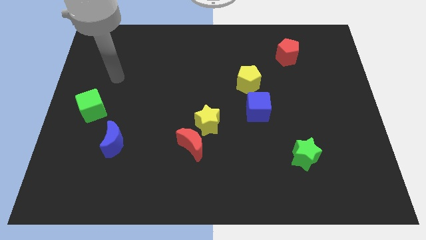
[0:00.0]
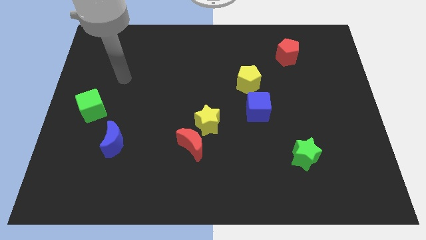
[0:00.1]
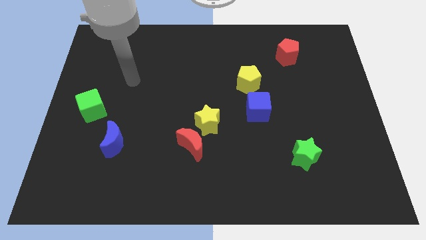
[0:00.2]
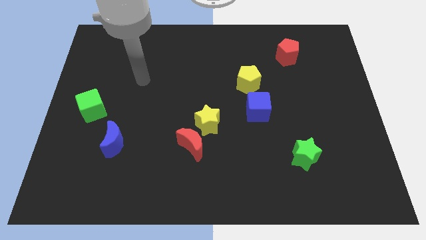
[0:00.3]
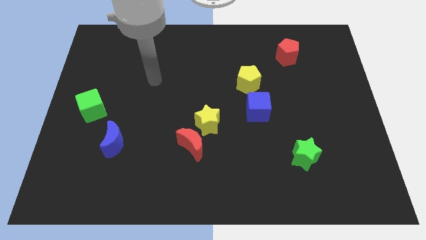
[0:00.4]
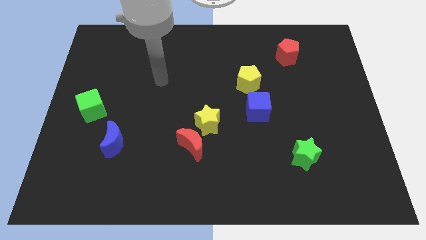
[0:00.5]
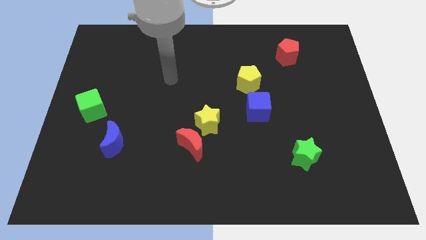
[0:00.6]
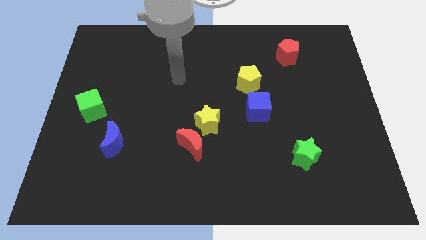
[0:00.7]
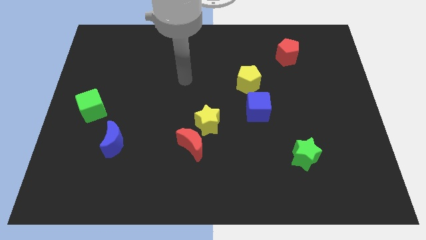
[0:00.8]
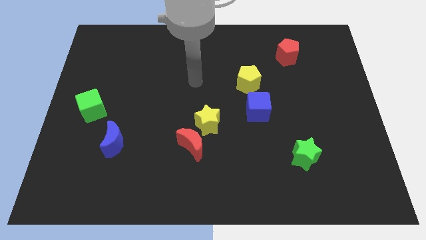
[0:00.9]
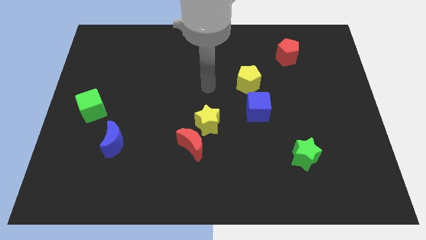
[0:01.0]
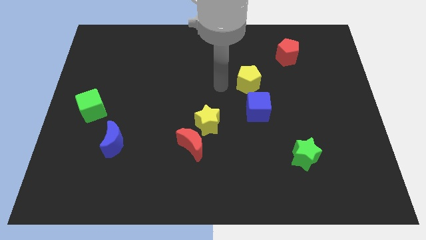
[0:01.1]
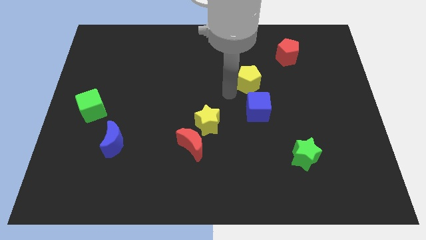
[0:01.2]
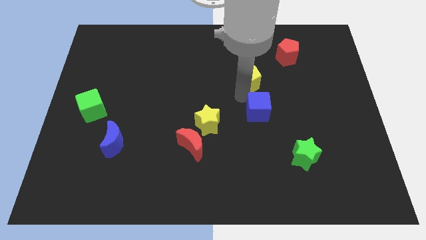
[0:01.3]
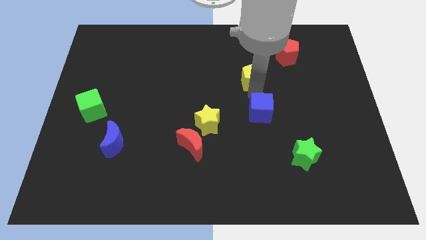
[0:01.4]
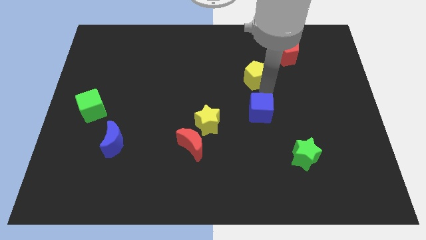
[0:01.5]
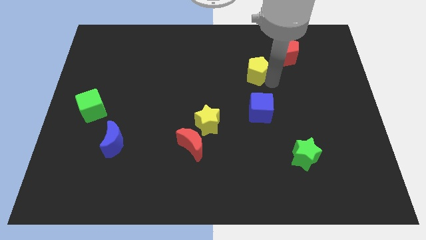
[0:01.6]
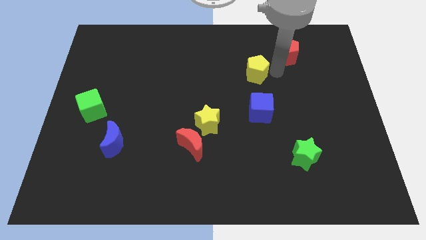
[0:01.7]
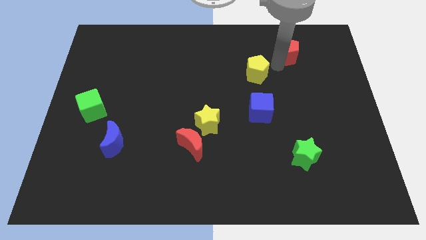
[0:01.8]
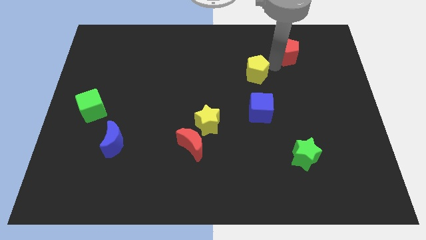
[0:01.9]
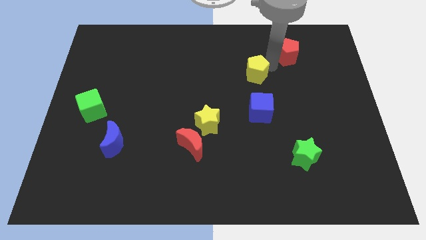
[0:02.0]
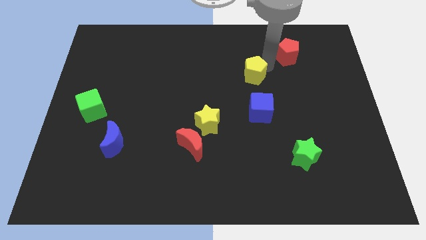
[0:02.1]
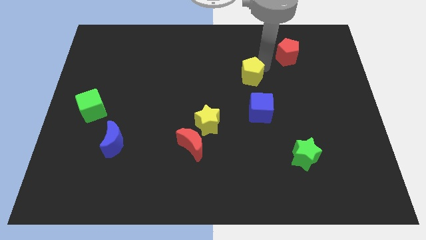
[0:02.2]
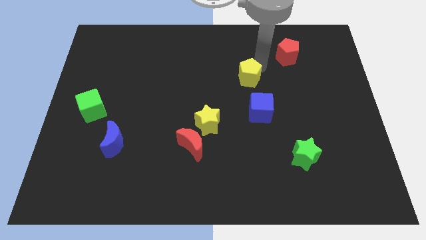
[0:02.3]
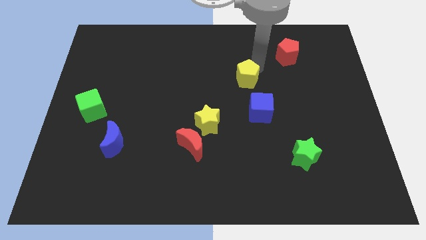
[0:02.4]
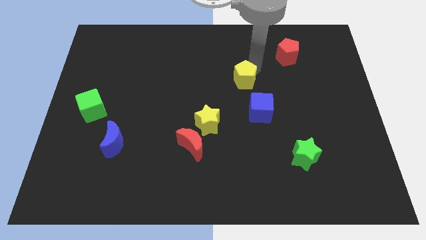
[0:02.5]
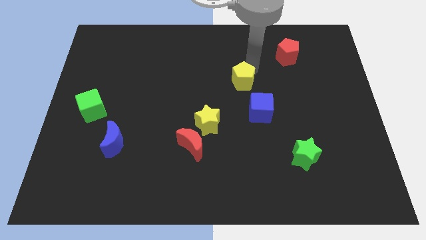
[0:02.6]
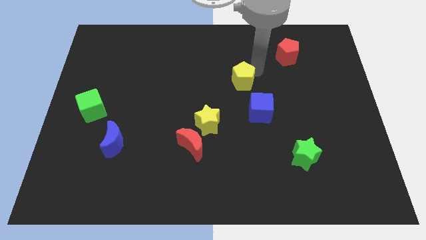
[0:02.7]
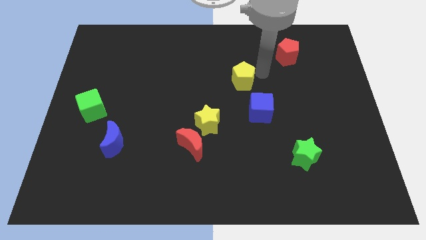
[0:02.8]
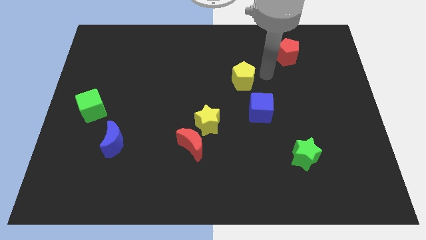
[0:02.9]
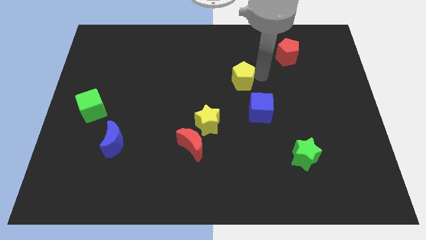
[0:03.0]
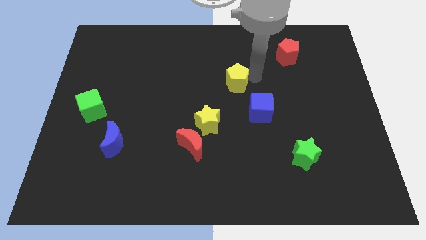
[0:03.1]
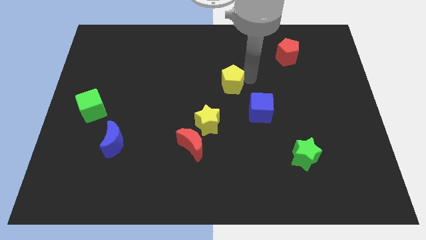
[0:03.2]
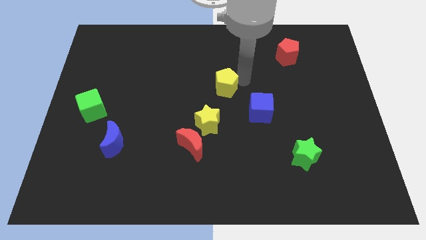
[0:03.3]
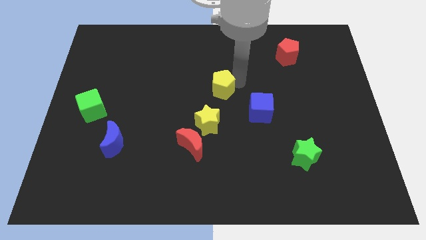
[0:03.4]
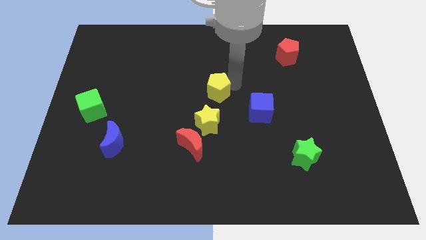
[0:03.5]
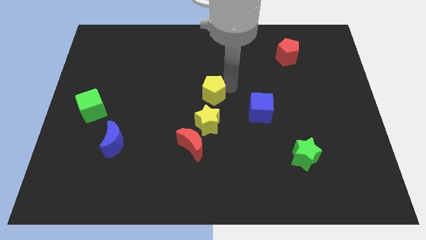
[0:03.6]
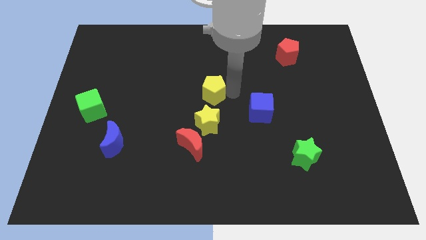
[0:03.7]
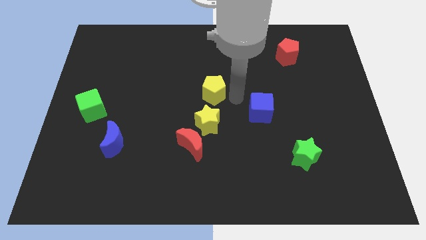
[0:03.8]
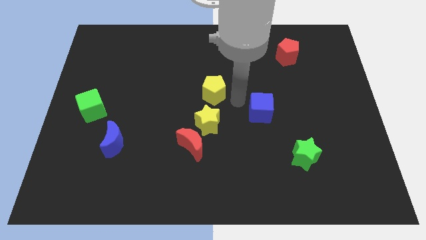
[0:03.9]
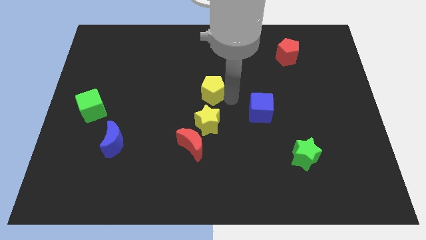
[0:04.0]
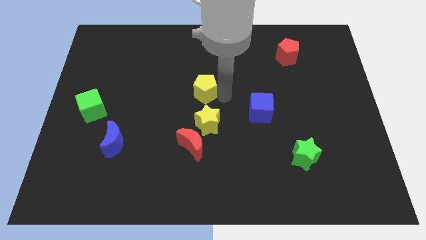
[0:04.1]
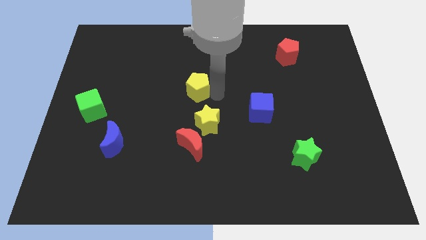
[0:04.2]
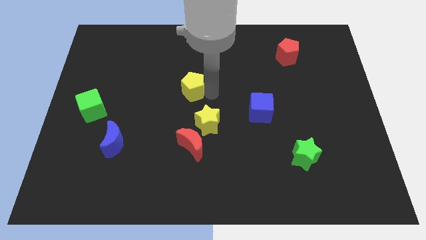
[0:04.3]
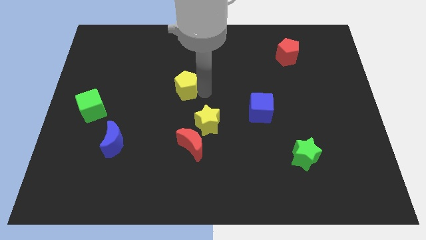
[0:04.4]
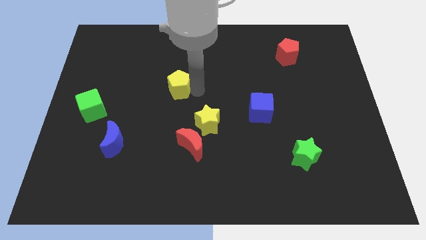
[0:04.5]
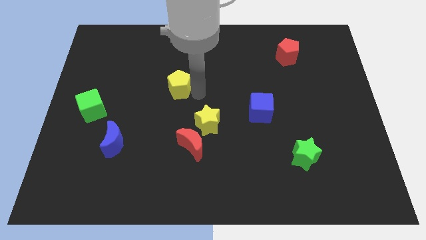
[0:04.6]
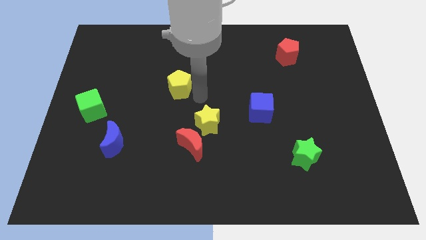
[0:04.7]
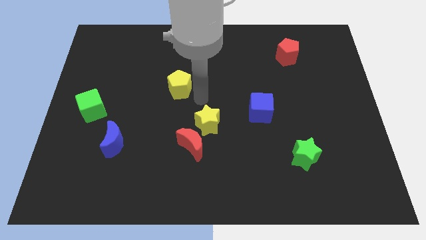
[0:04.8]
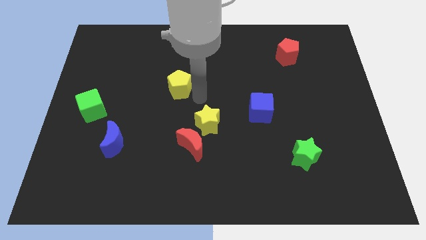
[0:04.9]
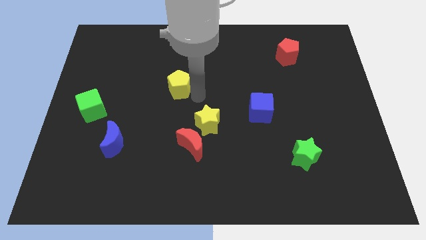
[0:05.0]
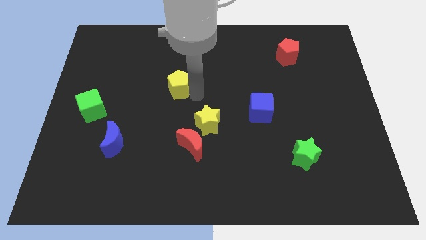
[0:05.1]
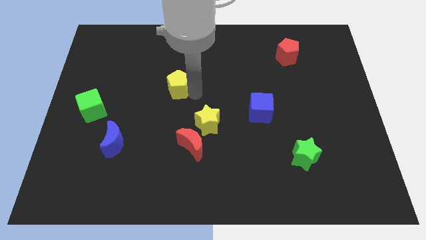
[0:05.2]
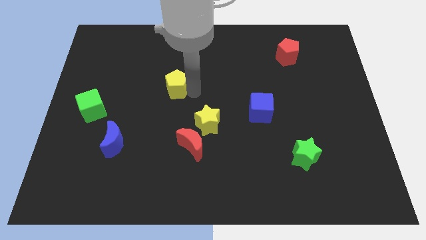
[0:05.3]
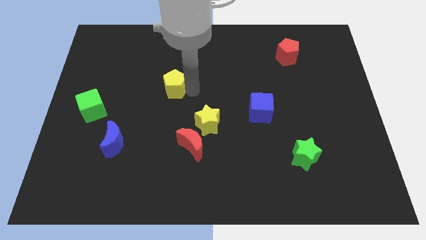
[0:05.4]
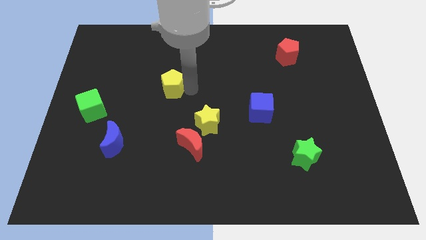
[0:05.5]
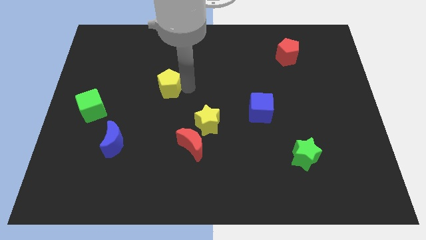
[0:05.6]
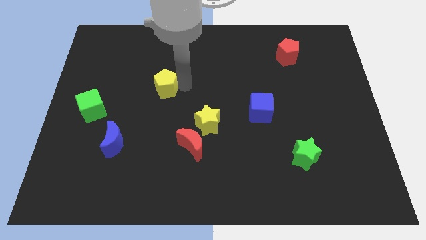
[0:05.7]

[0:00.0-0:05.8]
slide the yellow pentagon left

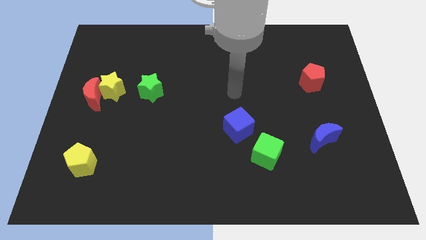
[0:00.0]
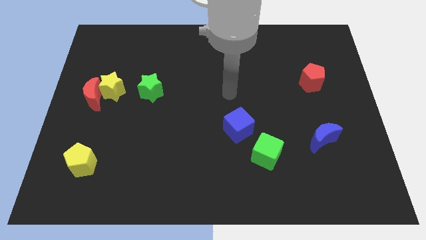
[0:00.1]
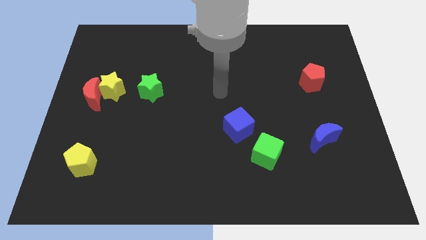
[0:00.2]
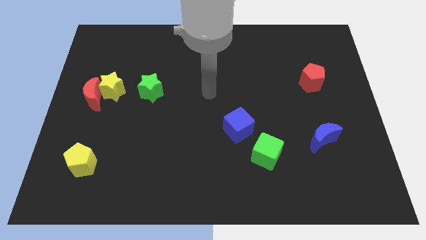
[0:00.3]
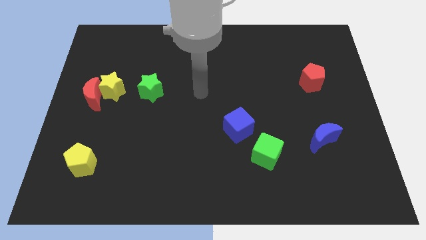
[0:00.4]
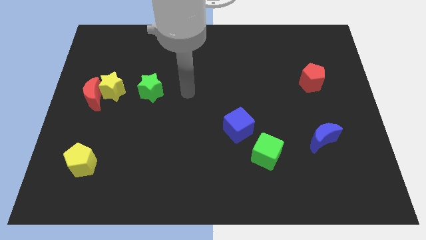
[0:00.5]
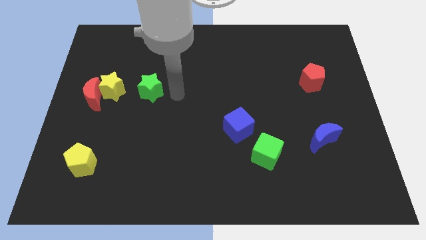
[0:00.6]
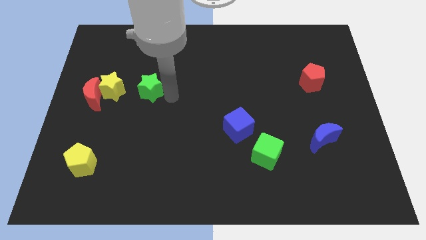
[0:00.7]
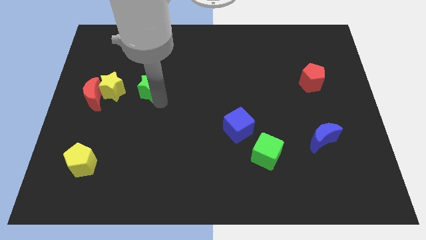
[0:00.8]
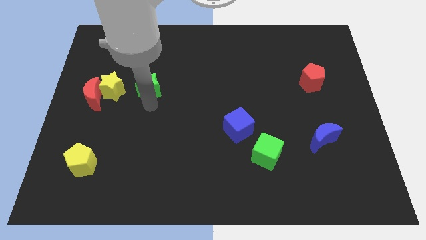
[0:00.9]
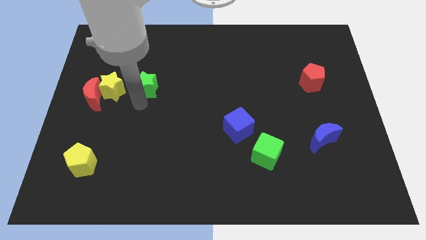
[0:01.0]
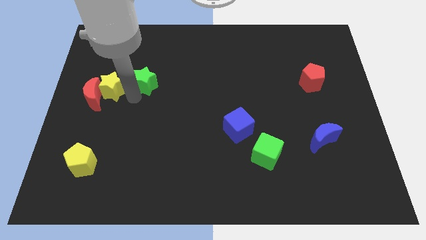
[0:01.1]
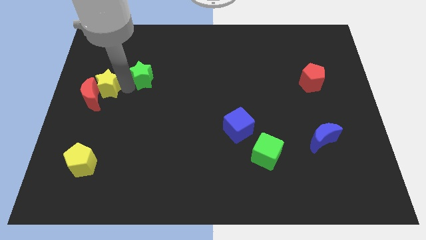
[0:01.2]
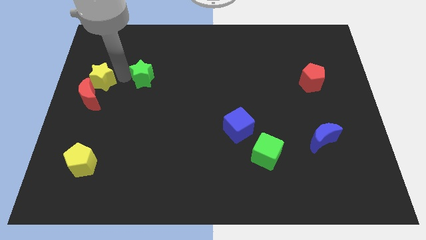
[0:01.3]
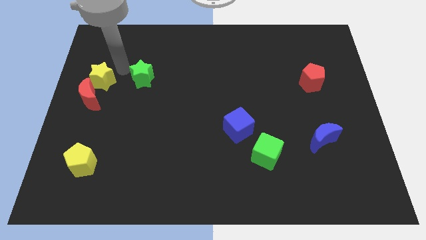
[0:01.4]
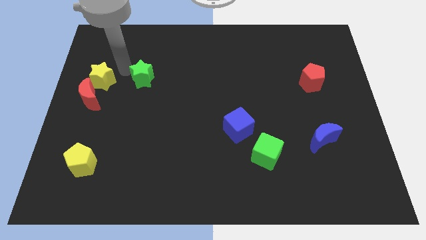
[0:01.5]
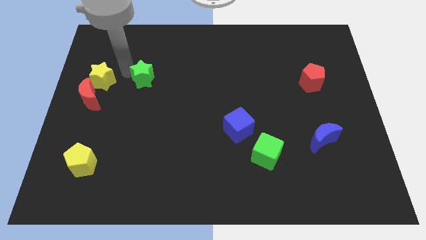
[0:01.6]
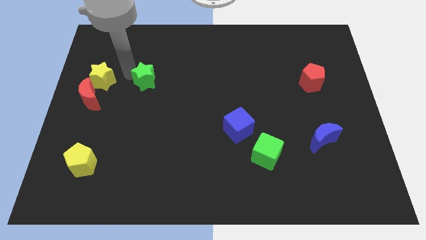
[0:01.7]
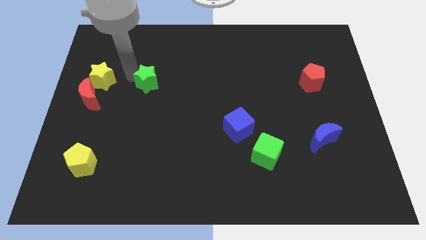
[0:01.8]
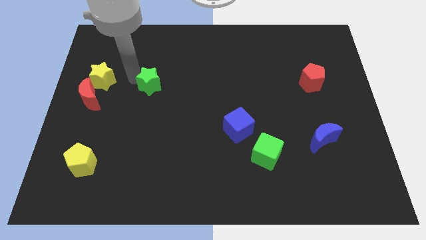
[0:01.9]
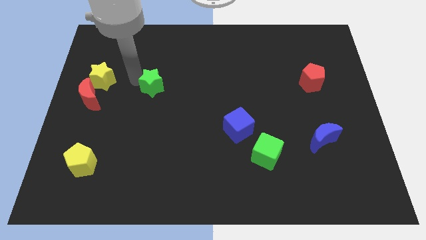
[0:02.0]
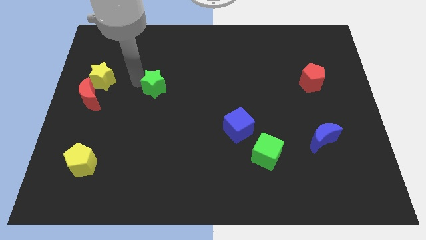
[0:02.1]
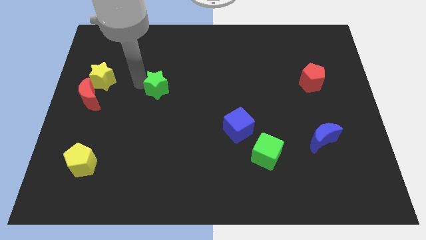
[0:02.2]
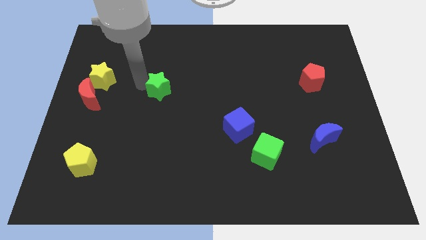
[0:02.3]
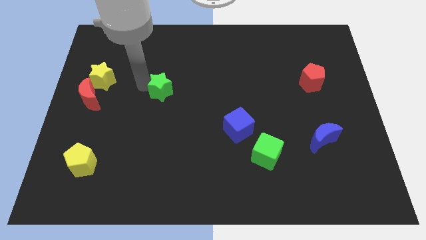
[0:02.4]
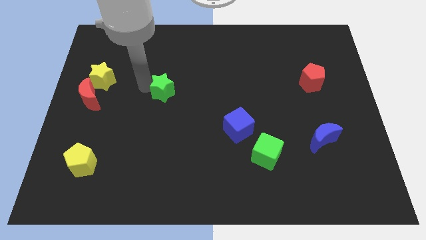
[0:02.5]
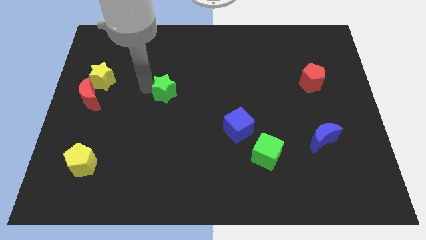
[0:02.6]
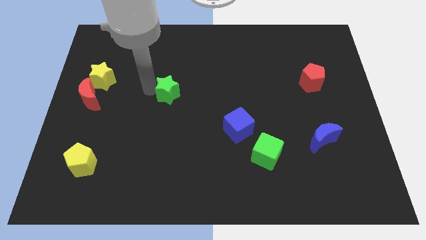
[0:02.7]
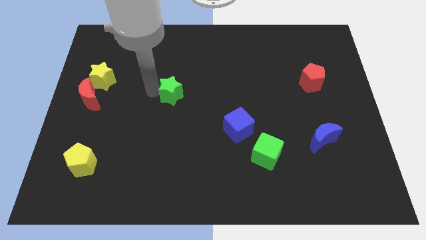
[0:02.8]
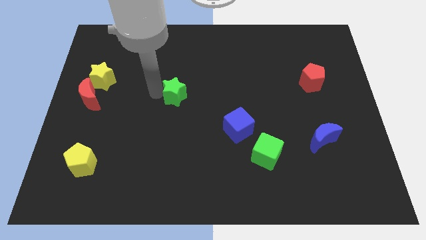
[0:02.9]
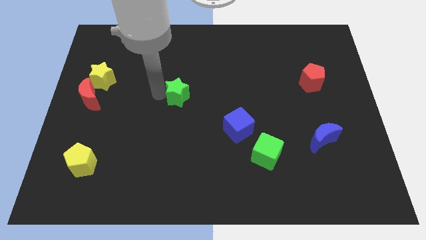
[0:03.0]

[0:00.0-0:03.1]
slide the green star right slightly
